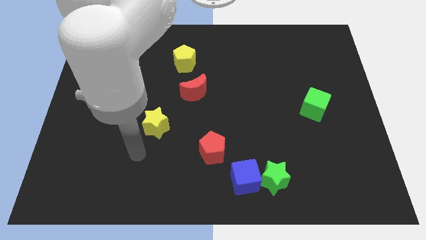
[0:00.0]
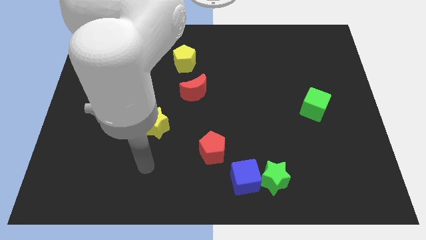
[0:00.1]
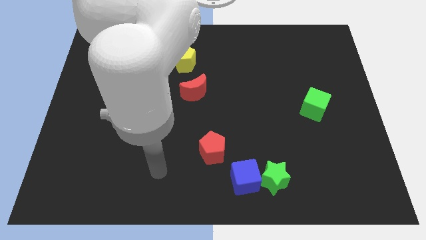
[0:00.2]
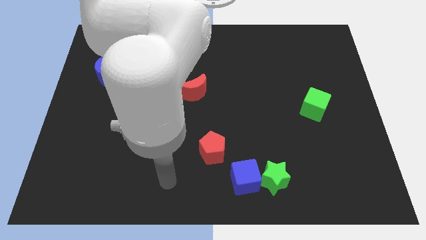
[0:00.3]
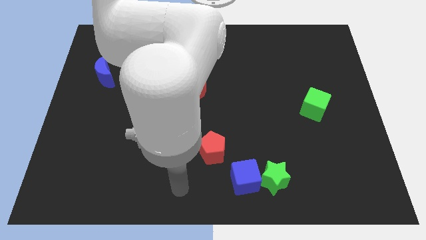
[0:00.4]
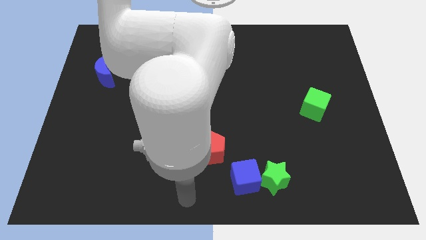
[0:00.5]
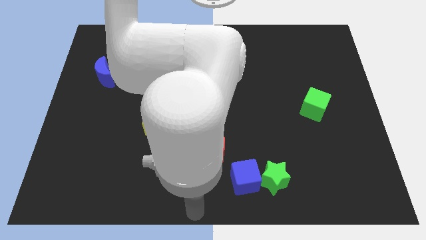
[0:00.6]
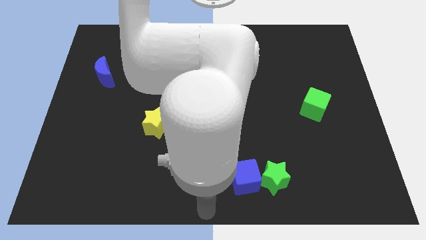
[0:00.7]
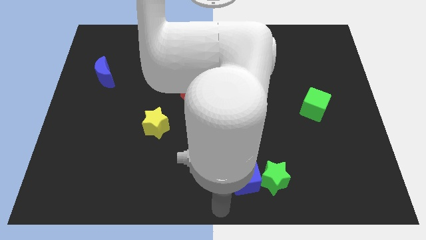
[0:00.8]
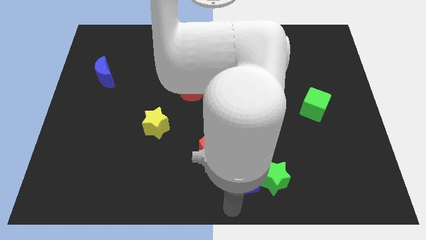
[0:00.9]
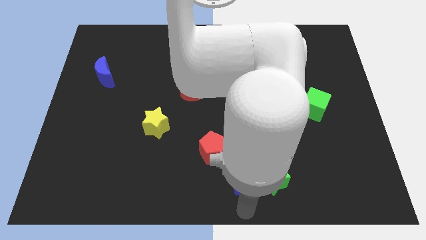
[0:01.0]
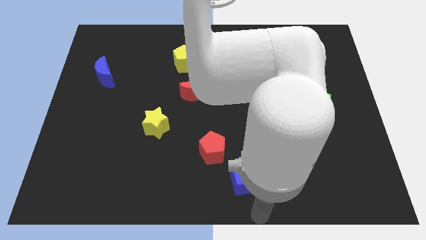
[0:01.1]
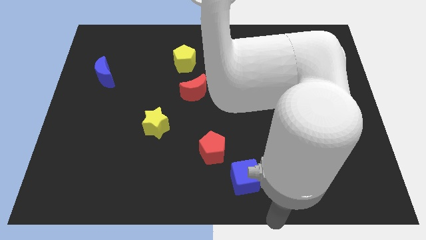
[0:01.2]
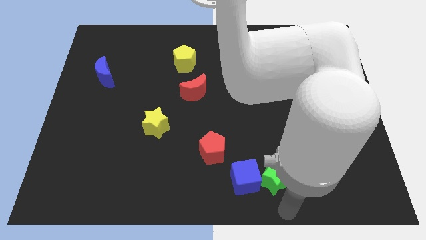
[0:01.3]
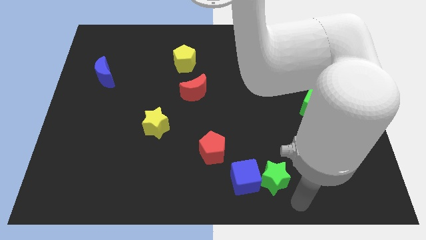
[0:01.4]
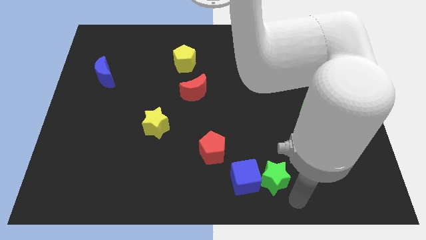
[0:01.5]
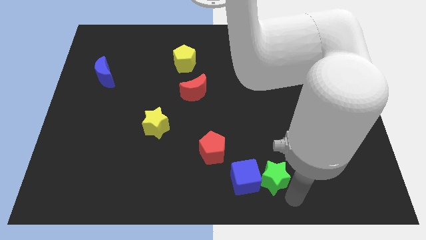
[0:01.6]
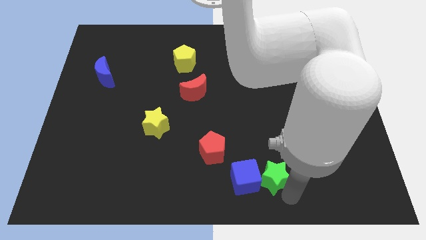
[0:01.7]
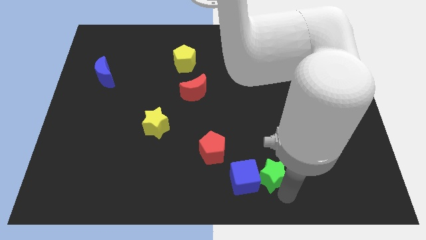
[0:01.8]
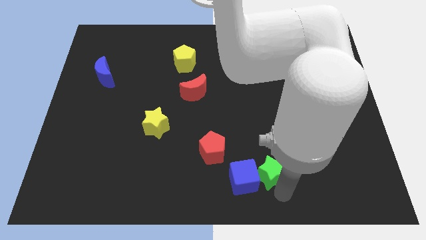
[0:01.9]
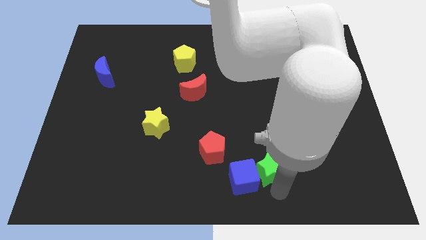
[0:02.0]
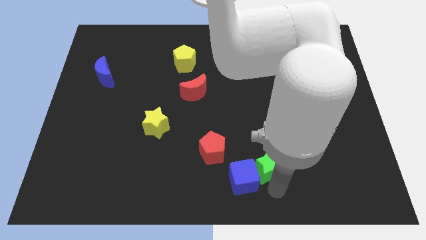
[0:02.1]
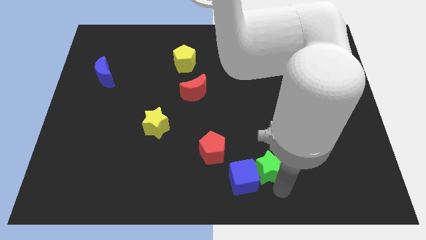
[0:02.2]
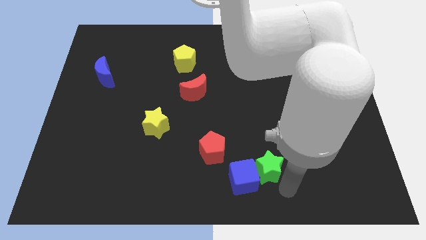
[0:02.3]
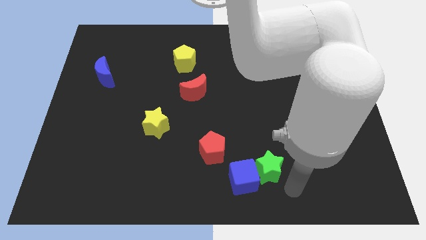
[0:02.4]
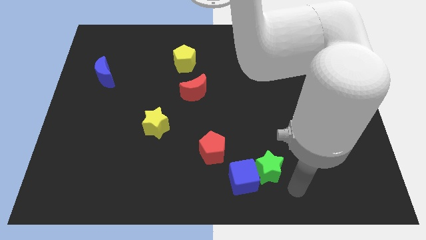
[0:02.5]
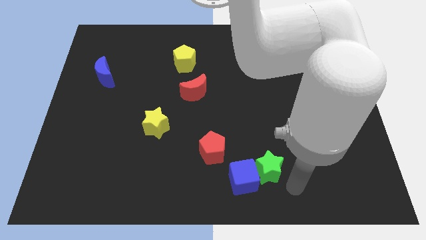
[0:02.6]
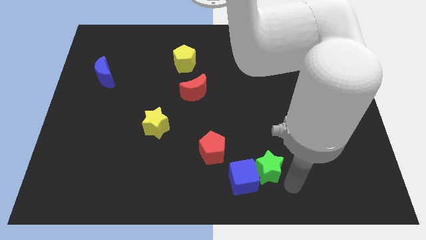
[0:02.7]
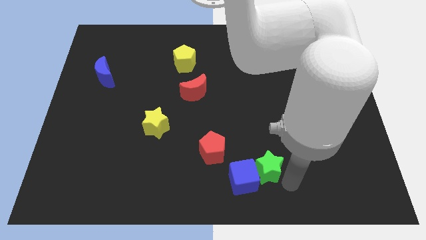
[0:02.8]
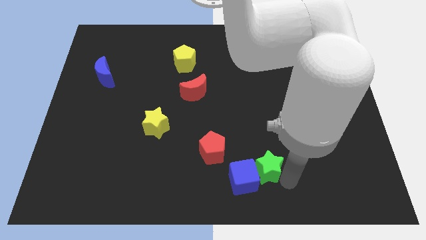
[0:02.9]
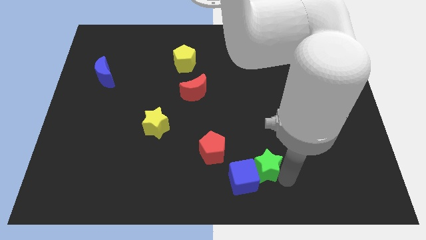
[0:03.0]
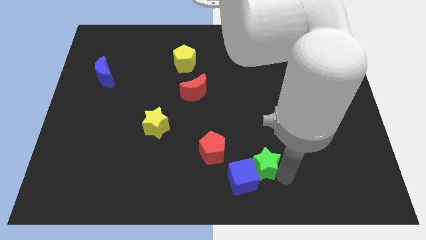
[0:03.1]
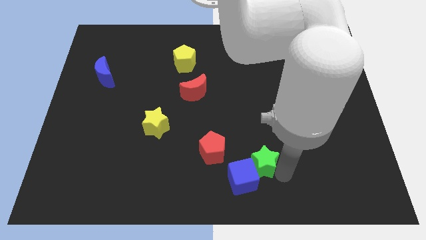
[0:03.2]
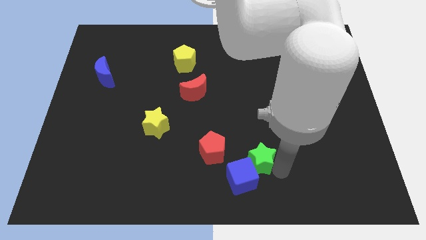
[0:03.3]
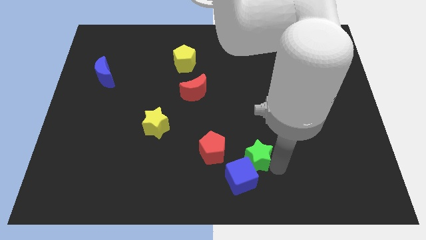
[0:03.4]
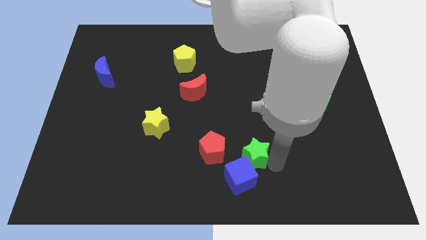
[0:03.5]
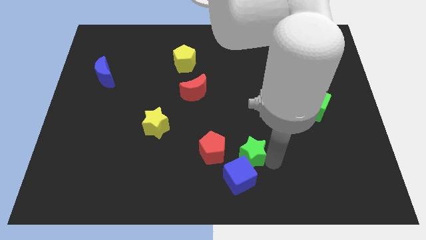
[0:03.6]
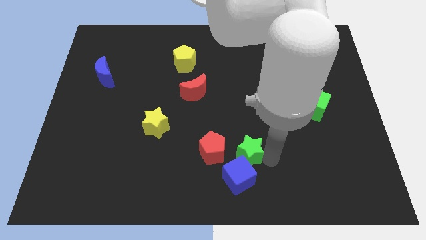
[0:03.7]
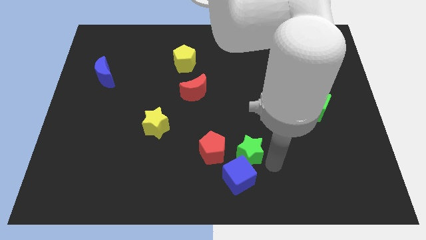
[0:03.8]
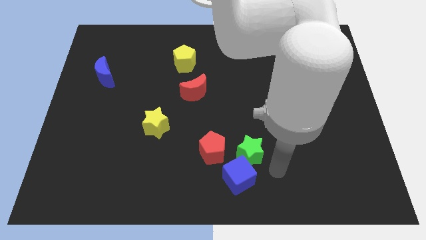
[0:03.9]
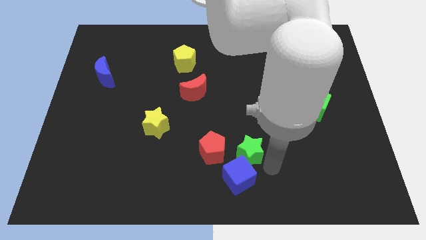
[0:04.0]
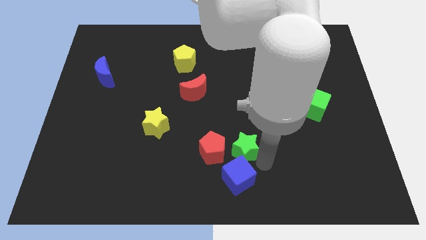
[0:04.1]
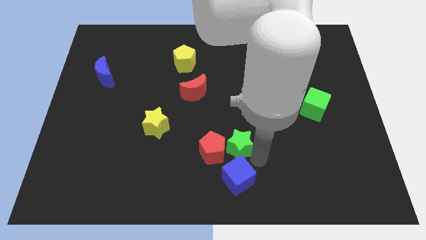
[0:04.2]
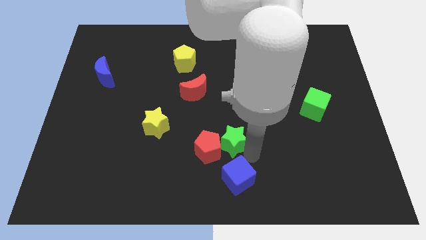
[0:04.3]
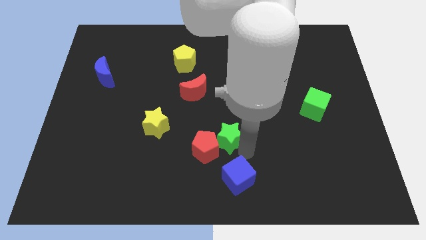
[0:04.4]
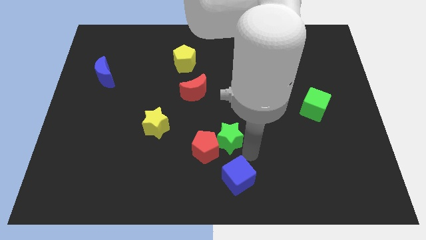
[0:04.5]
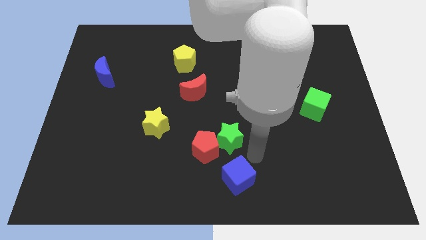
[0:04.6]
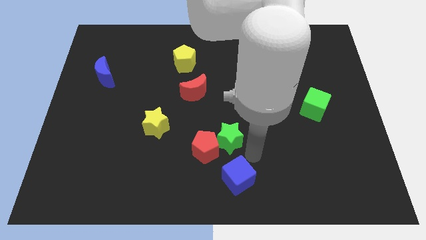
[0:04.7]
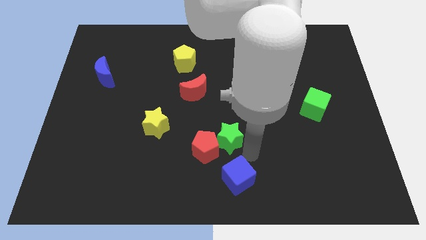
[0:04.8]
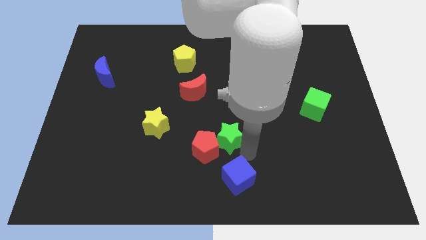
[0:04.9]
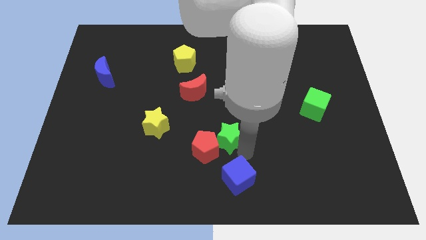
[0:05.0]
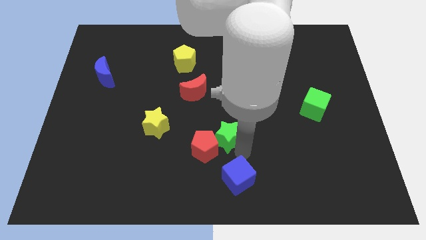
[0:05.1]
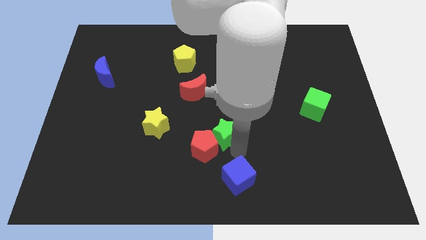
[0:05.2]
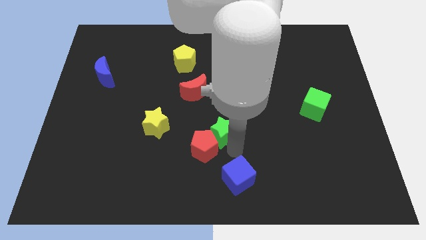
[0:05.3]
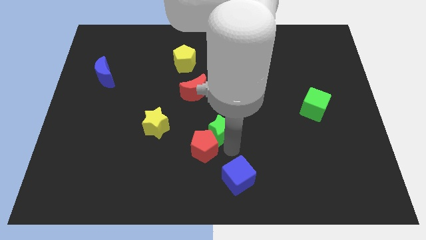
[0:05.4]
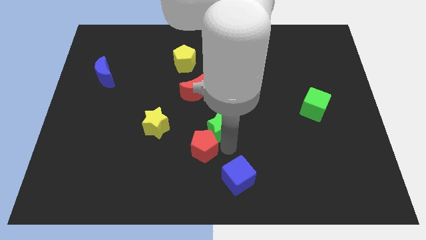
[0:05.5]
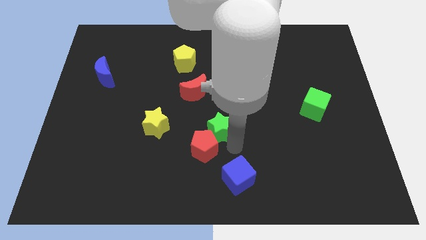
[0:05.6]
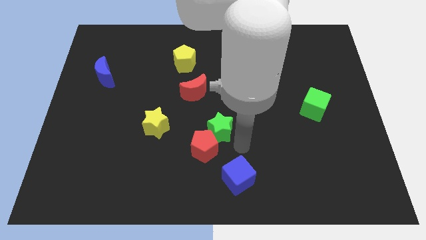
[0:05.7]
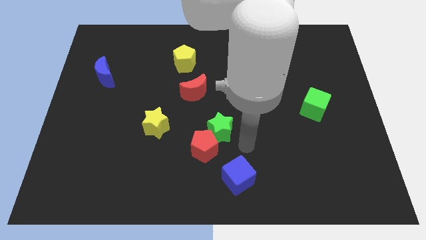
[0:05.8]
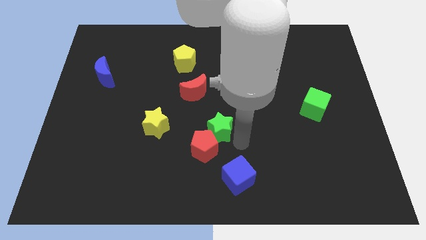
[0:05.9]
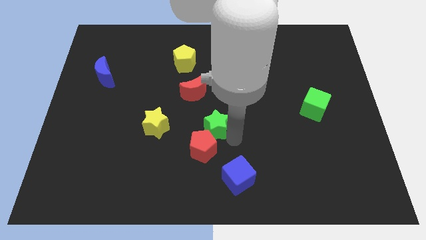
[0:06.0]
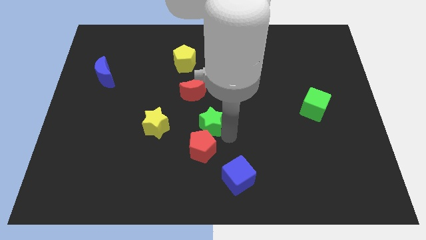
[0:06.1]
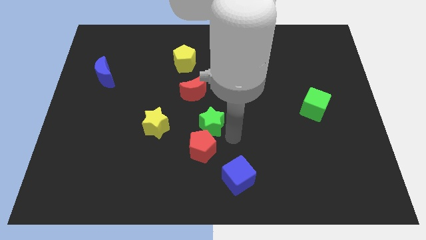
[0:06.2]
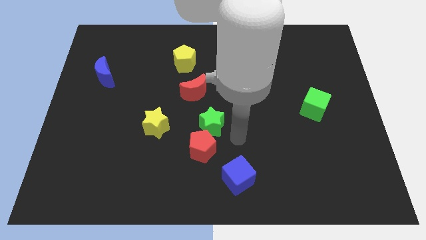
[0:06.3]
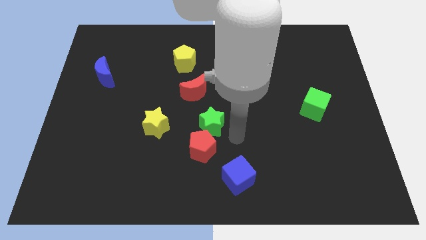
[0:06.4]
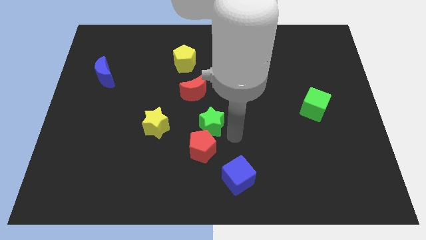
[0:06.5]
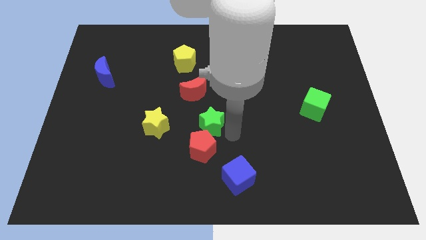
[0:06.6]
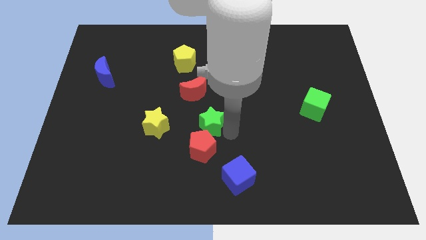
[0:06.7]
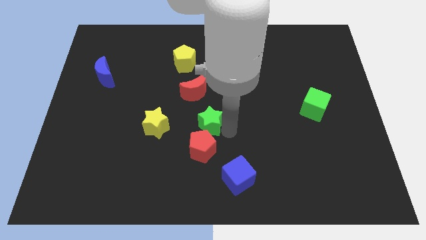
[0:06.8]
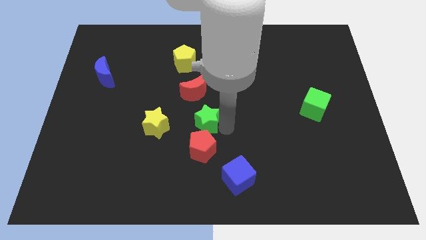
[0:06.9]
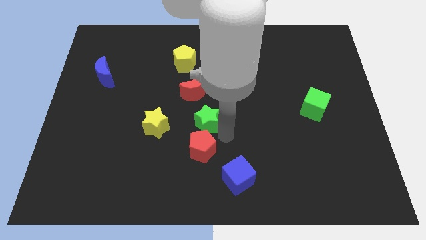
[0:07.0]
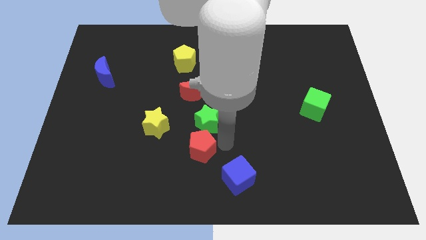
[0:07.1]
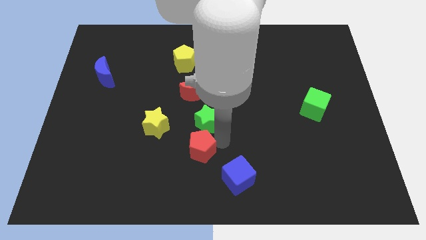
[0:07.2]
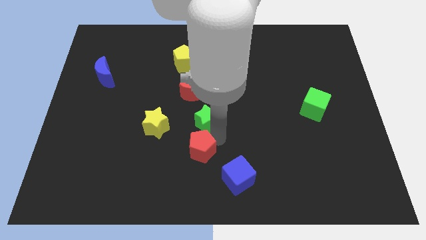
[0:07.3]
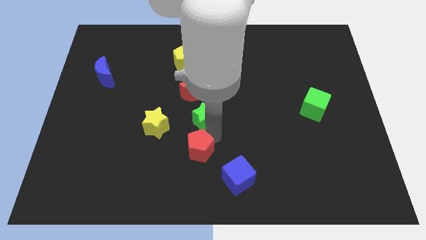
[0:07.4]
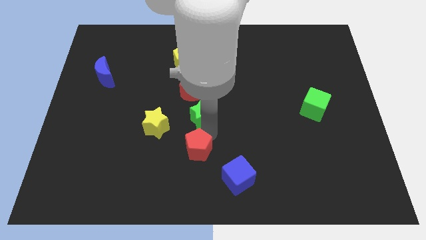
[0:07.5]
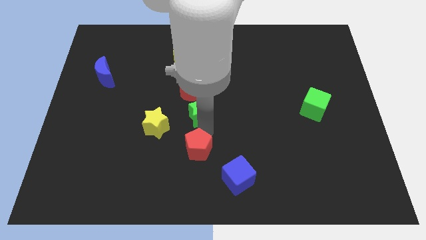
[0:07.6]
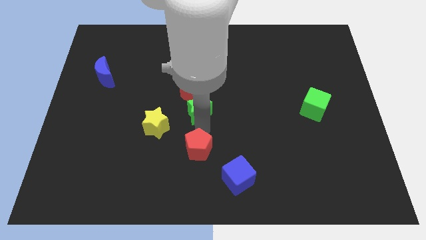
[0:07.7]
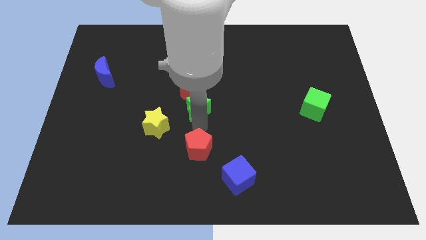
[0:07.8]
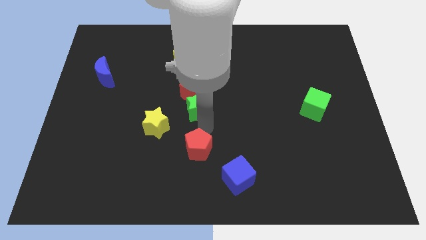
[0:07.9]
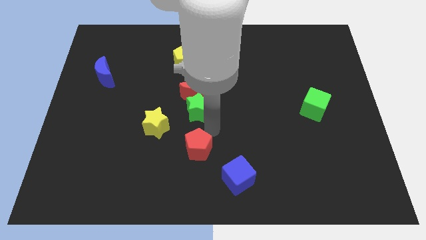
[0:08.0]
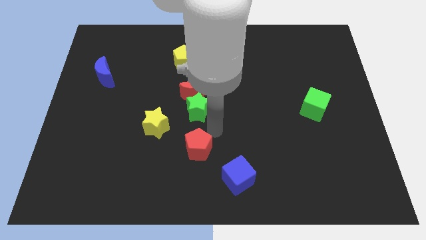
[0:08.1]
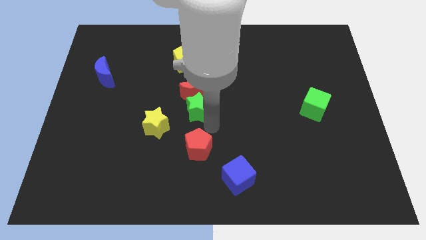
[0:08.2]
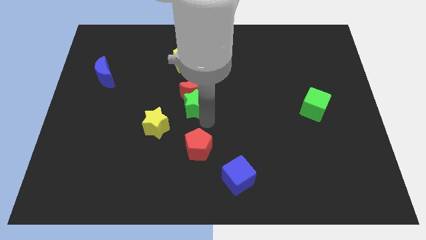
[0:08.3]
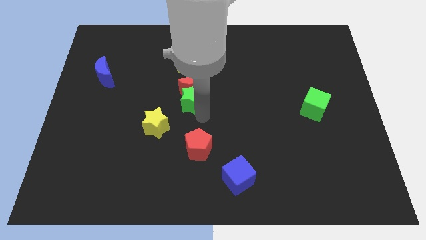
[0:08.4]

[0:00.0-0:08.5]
move the green star to the bottom side of the yellow pentagon
